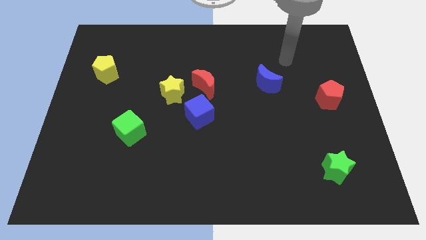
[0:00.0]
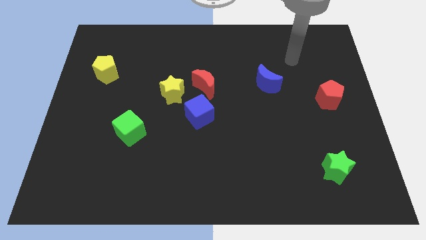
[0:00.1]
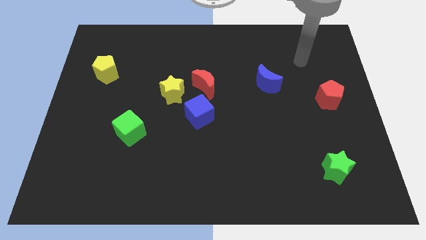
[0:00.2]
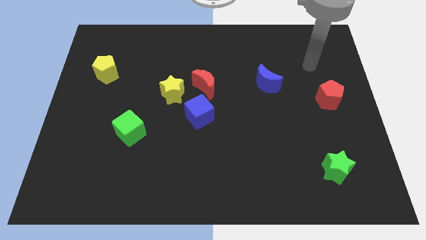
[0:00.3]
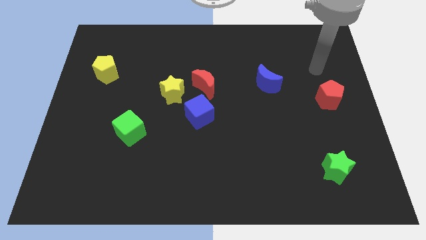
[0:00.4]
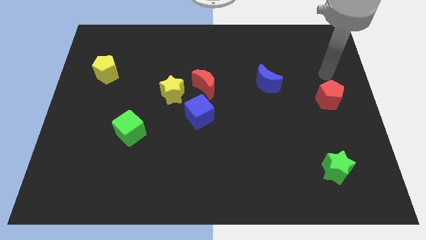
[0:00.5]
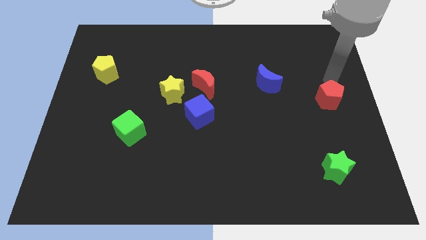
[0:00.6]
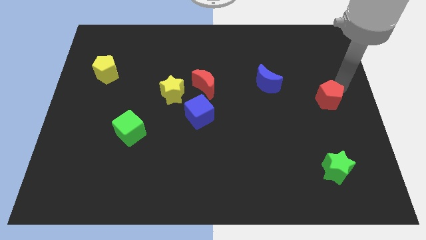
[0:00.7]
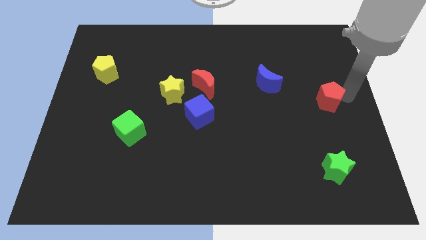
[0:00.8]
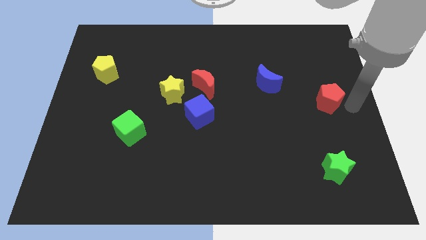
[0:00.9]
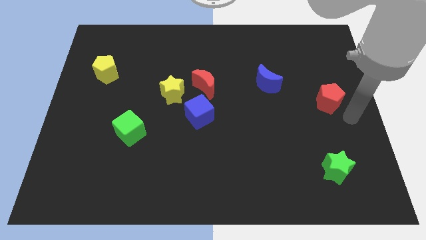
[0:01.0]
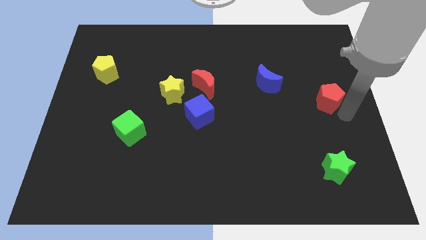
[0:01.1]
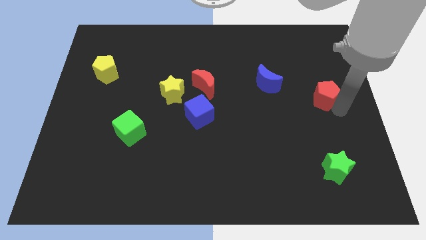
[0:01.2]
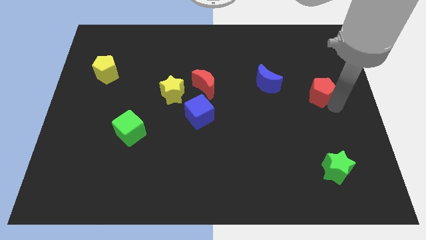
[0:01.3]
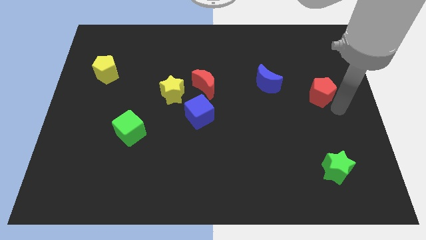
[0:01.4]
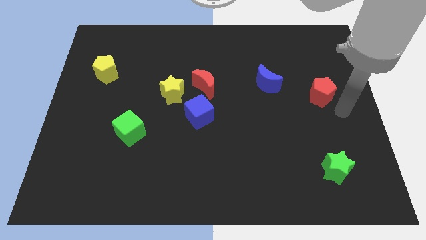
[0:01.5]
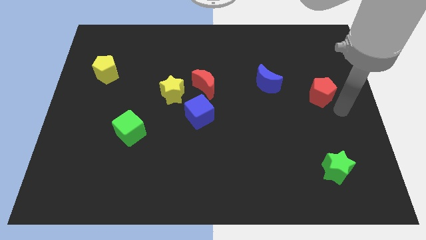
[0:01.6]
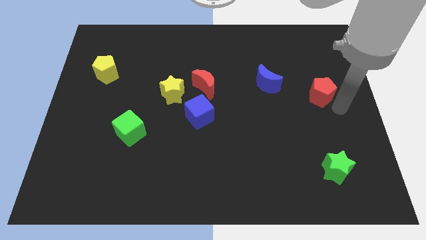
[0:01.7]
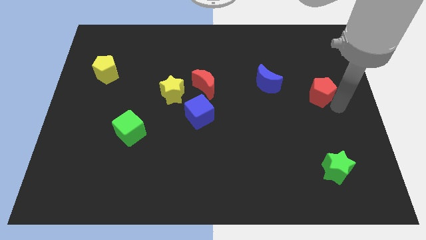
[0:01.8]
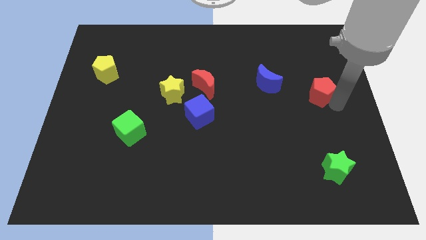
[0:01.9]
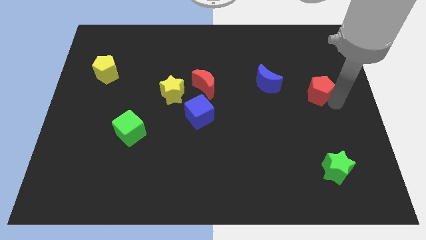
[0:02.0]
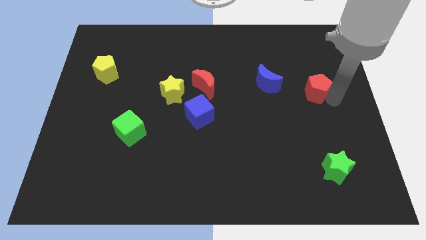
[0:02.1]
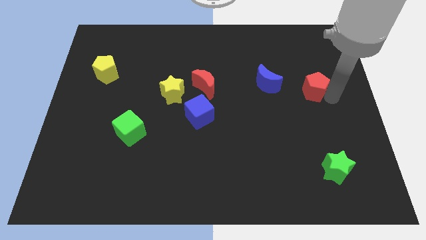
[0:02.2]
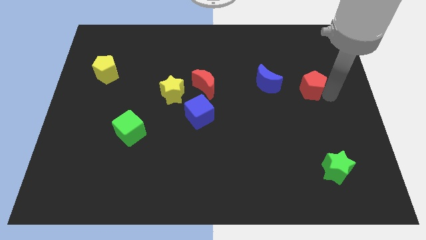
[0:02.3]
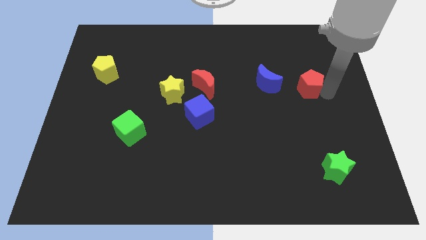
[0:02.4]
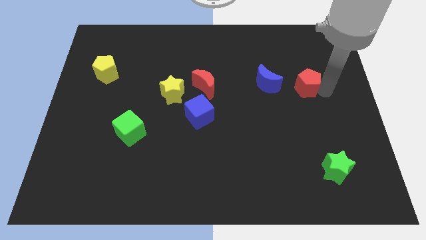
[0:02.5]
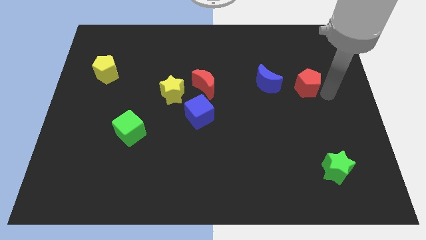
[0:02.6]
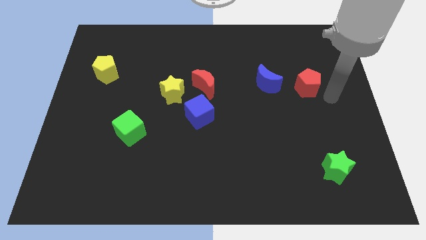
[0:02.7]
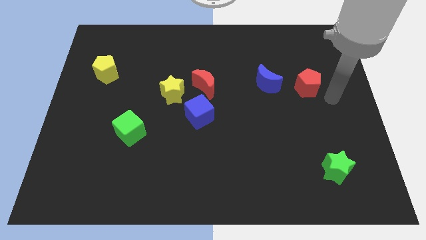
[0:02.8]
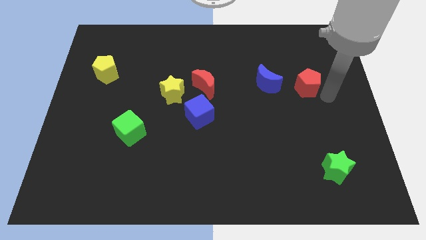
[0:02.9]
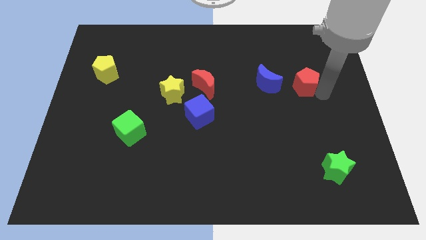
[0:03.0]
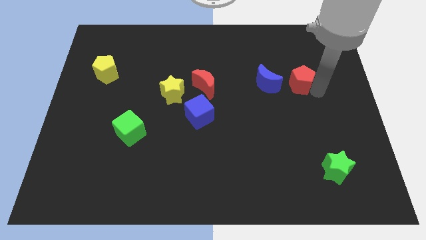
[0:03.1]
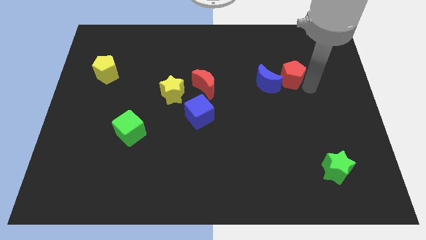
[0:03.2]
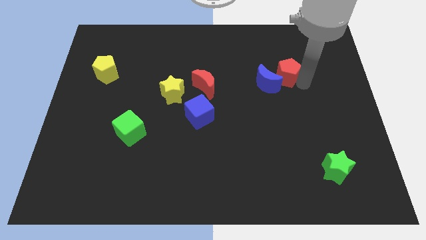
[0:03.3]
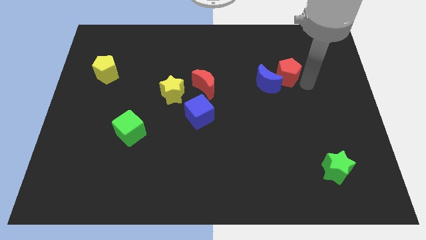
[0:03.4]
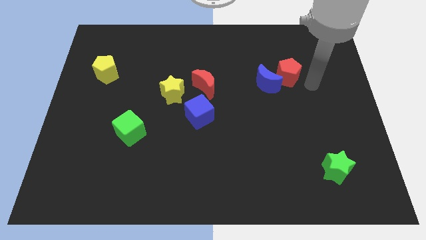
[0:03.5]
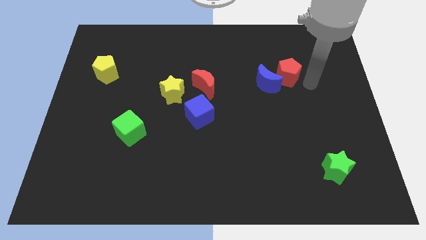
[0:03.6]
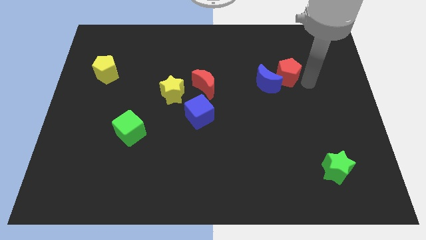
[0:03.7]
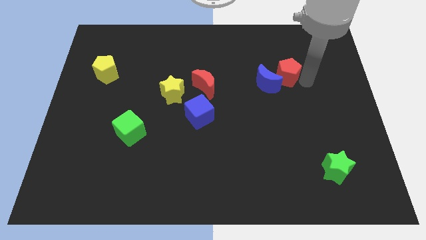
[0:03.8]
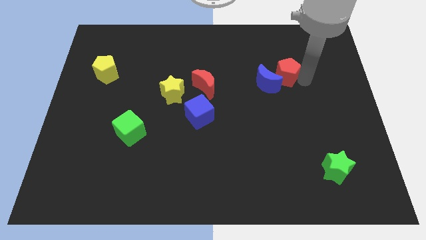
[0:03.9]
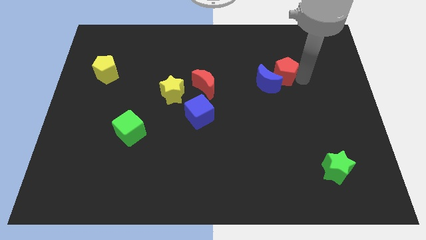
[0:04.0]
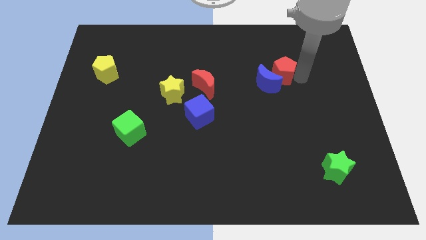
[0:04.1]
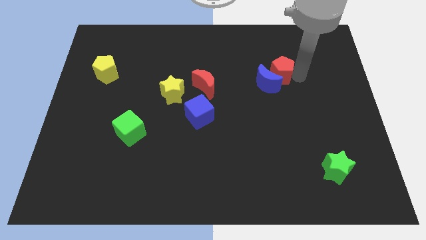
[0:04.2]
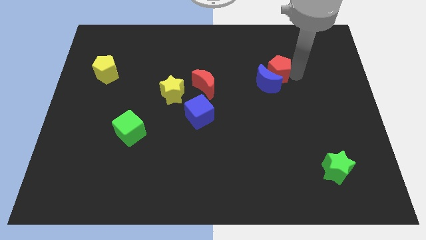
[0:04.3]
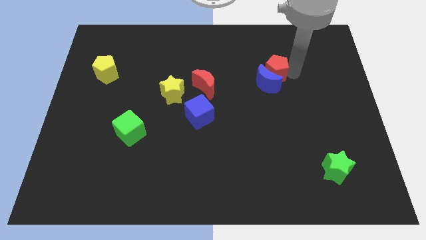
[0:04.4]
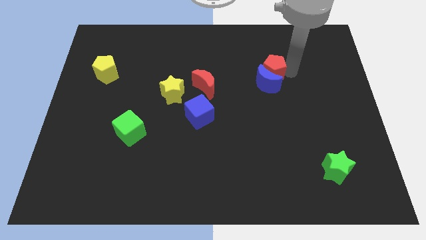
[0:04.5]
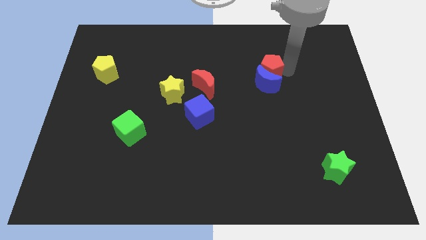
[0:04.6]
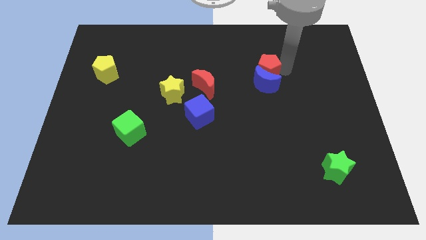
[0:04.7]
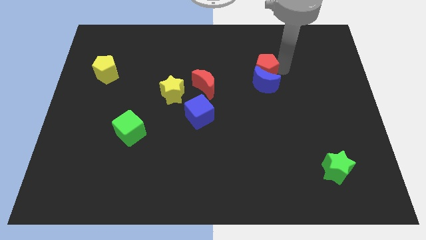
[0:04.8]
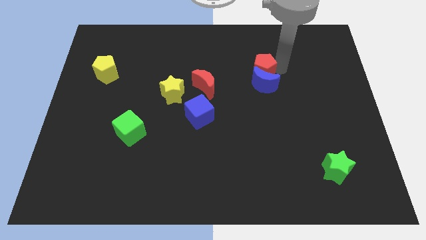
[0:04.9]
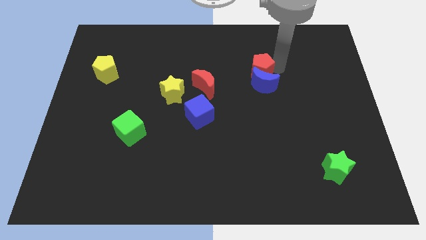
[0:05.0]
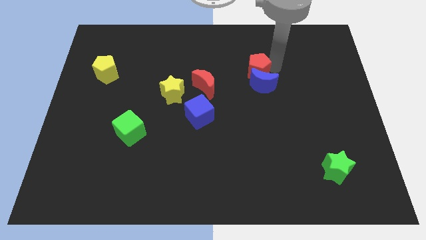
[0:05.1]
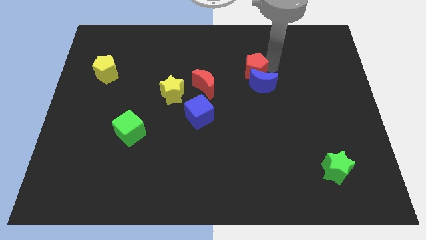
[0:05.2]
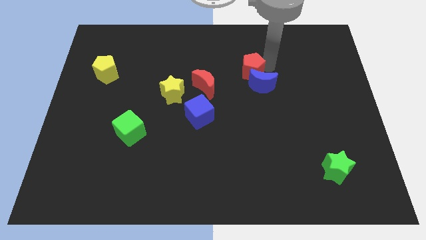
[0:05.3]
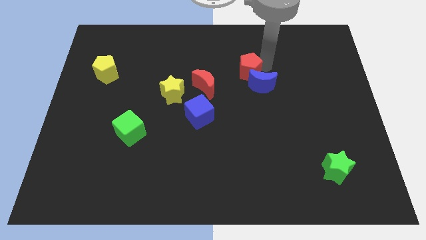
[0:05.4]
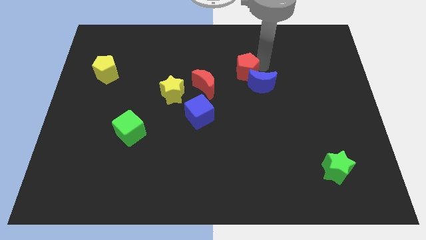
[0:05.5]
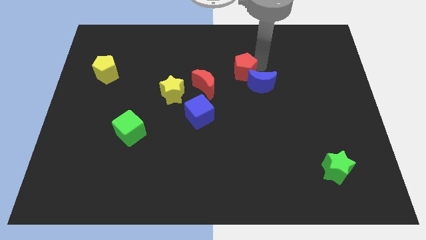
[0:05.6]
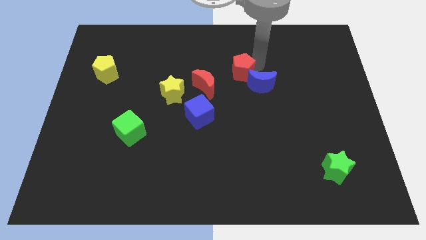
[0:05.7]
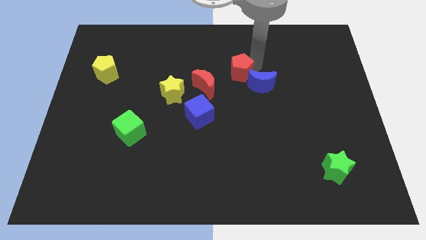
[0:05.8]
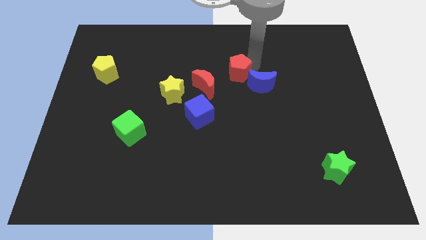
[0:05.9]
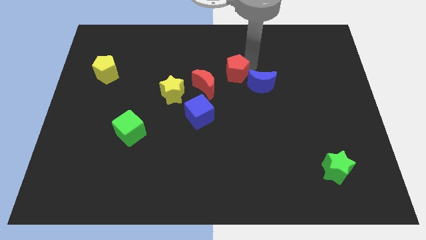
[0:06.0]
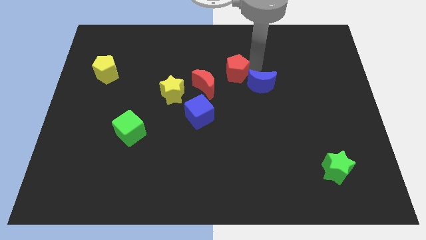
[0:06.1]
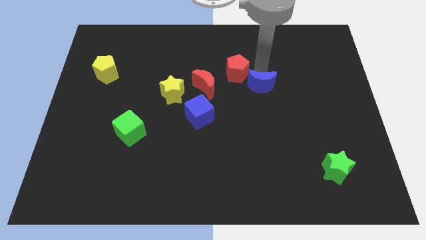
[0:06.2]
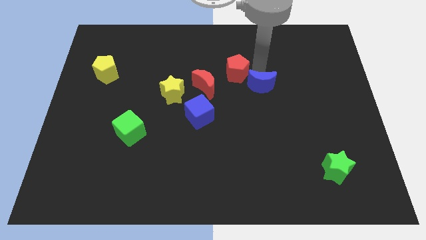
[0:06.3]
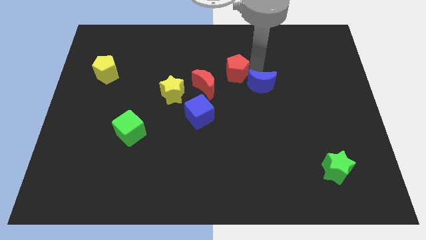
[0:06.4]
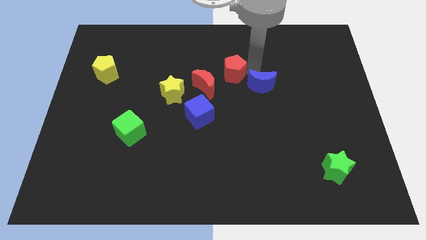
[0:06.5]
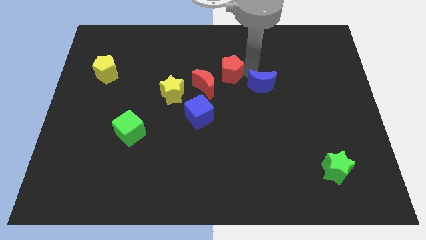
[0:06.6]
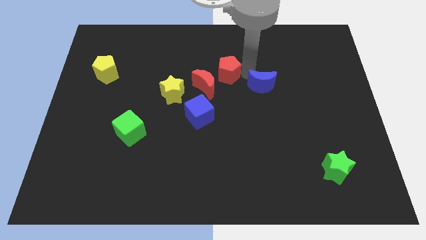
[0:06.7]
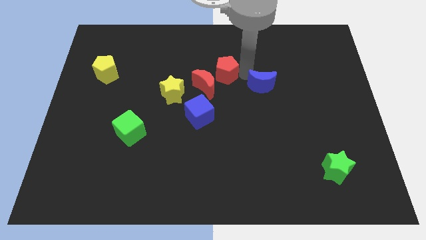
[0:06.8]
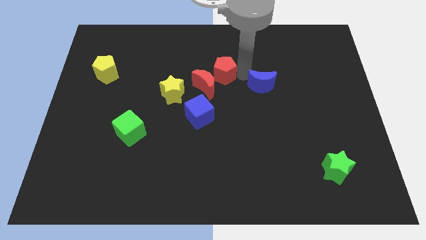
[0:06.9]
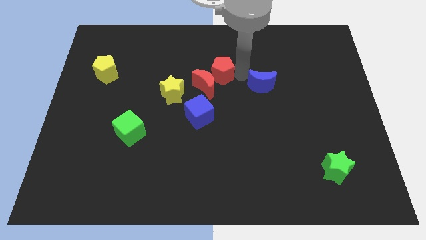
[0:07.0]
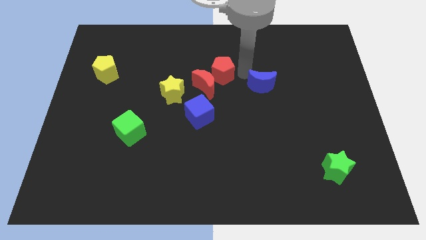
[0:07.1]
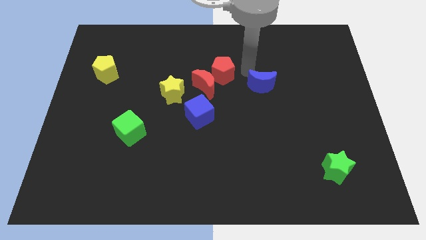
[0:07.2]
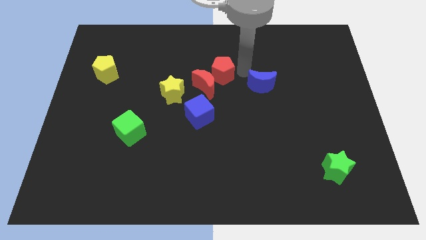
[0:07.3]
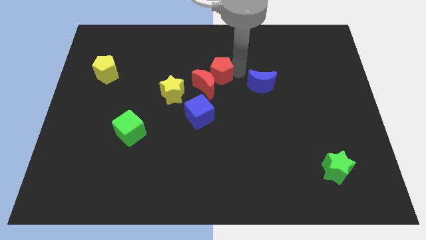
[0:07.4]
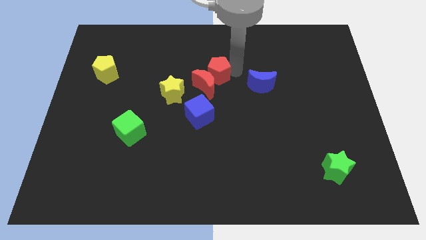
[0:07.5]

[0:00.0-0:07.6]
put the red pentagon to the top side of the blue cube
